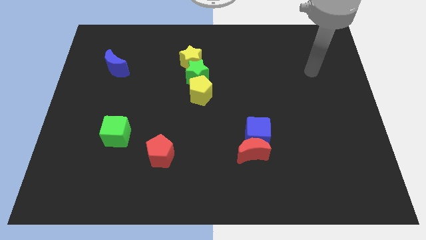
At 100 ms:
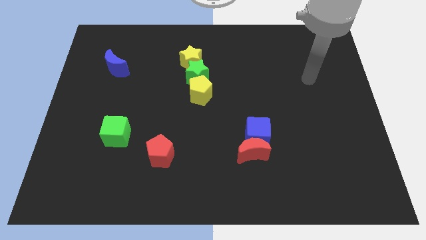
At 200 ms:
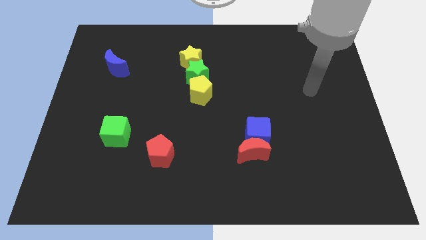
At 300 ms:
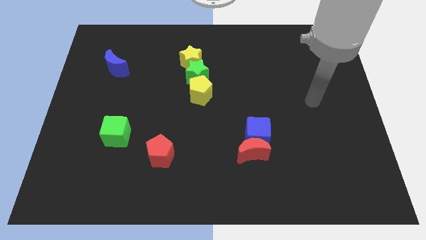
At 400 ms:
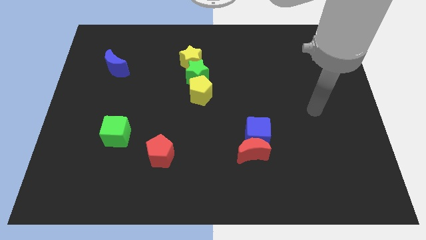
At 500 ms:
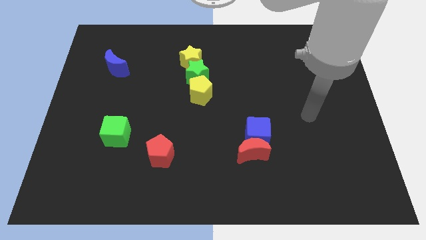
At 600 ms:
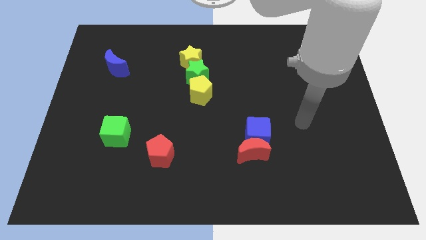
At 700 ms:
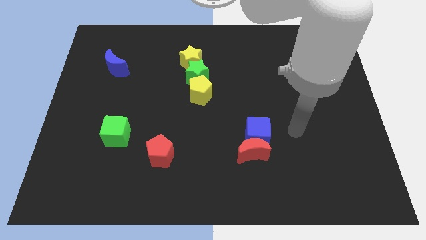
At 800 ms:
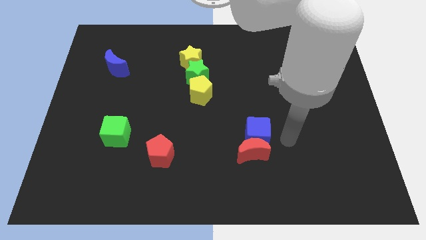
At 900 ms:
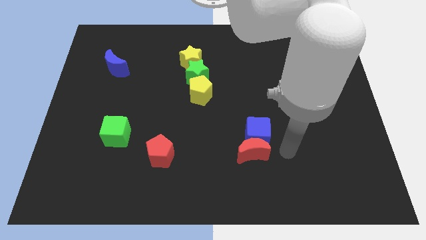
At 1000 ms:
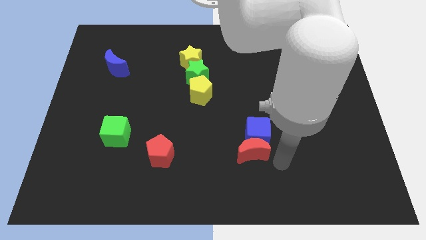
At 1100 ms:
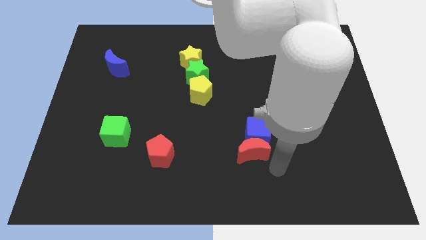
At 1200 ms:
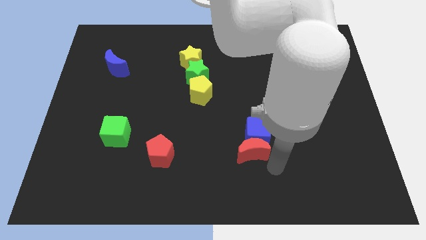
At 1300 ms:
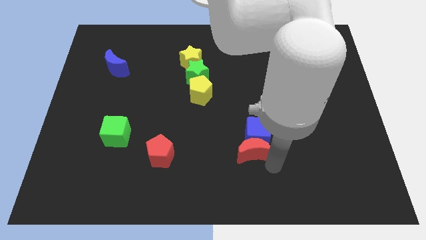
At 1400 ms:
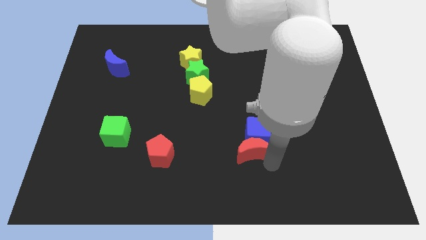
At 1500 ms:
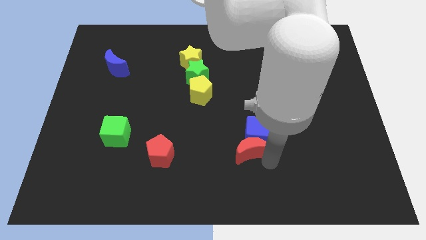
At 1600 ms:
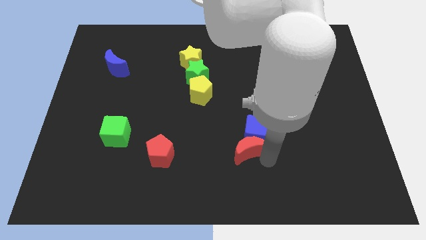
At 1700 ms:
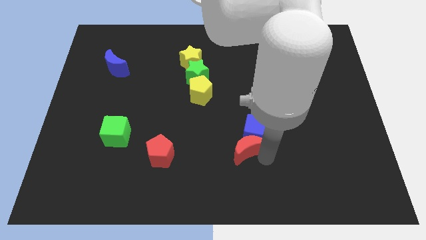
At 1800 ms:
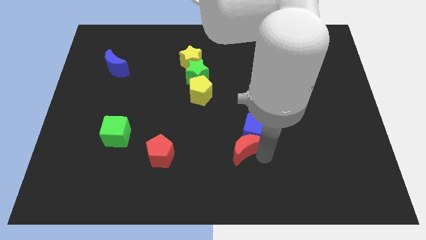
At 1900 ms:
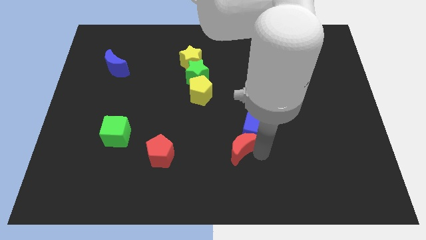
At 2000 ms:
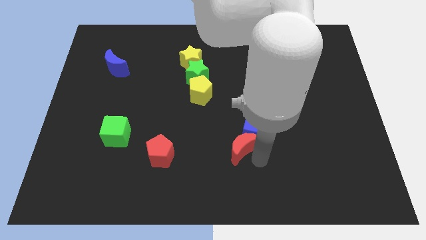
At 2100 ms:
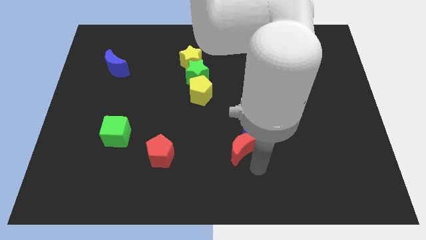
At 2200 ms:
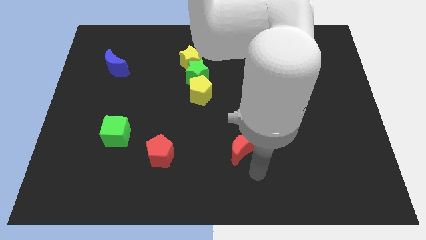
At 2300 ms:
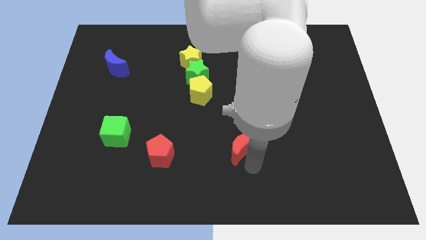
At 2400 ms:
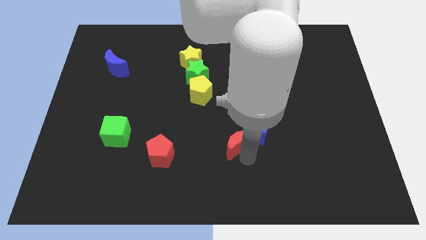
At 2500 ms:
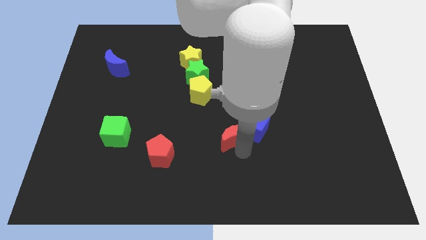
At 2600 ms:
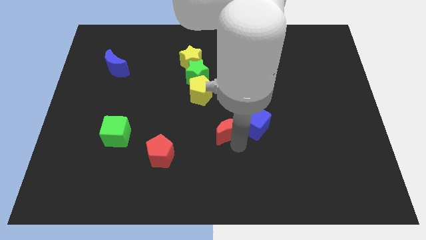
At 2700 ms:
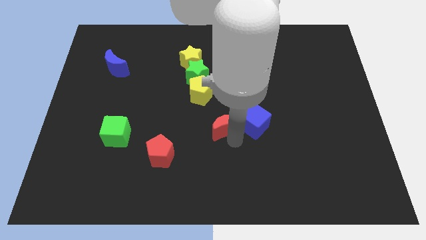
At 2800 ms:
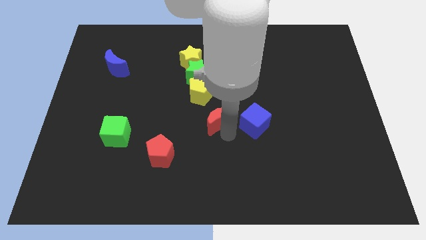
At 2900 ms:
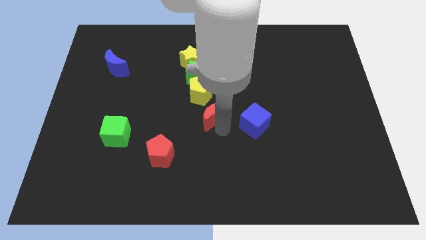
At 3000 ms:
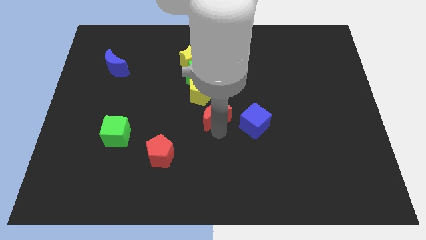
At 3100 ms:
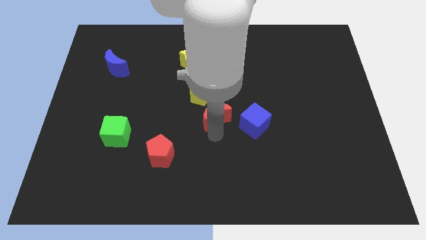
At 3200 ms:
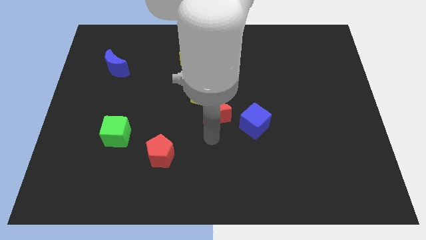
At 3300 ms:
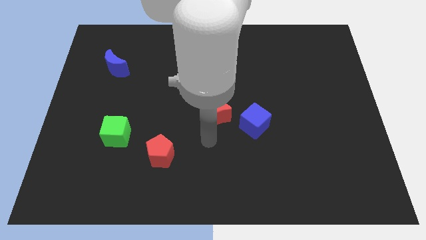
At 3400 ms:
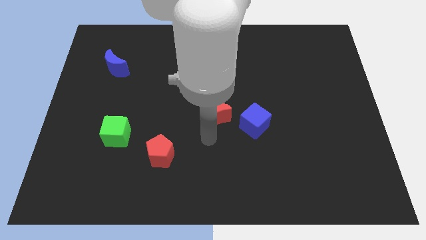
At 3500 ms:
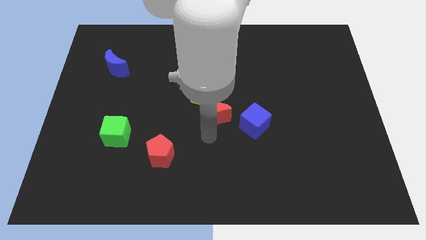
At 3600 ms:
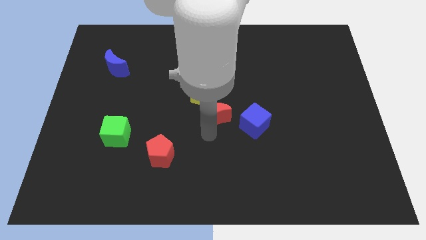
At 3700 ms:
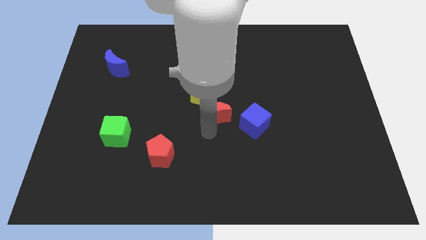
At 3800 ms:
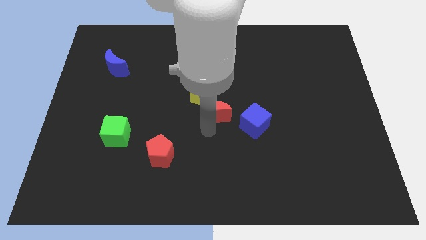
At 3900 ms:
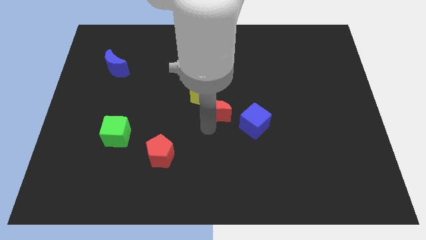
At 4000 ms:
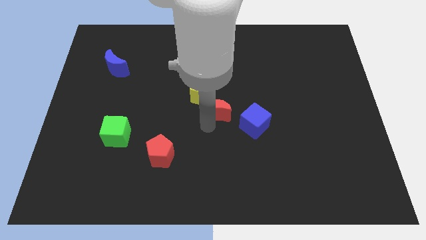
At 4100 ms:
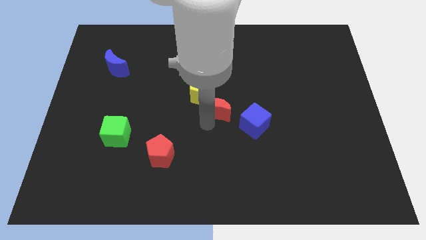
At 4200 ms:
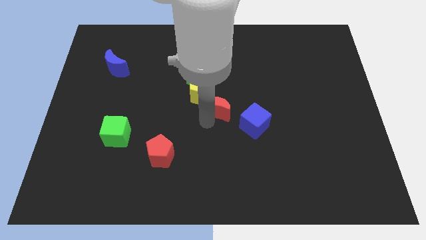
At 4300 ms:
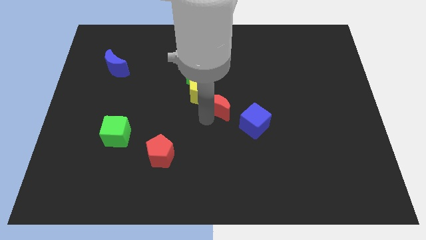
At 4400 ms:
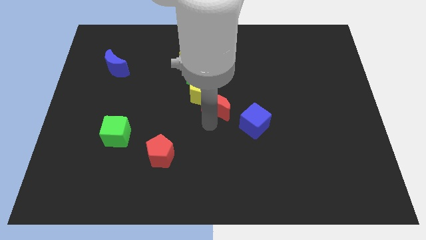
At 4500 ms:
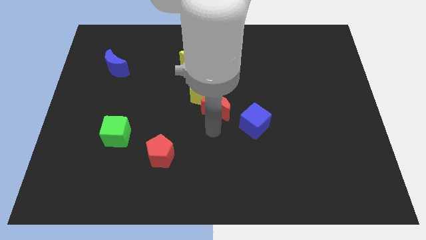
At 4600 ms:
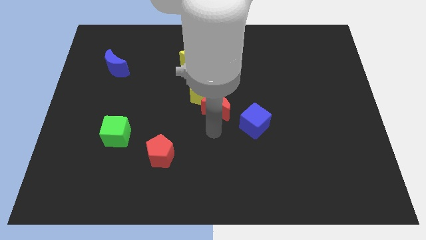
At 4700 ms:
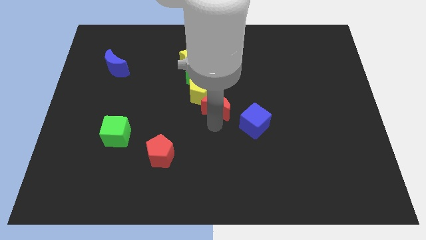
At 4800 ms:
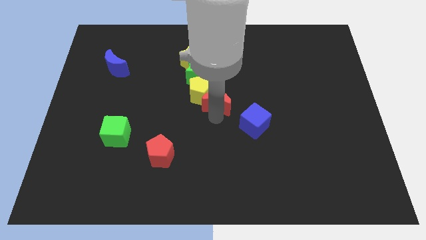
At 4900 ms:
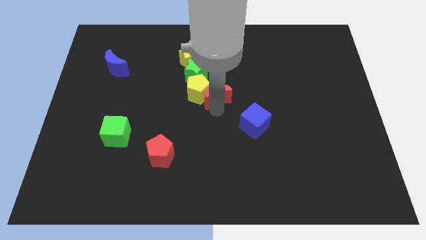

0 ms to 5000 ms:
slide the red moon to the top right side of the yellow pentagon

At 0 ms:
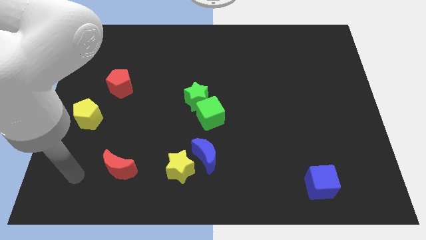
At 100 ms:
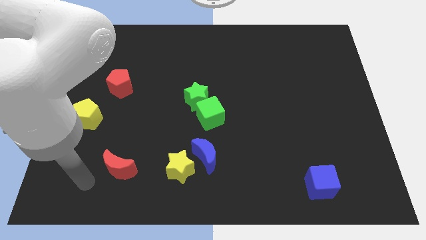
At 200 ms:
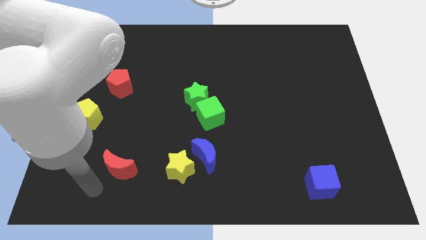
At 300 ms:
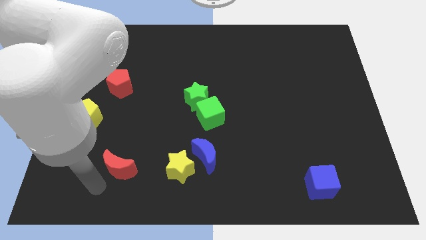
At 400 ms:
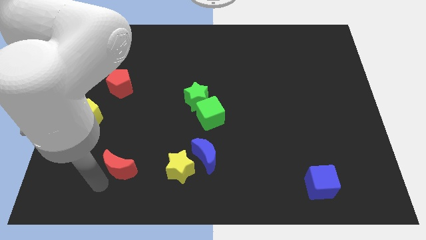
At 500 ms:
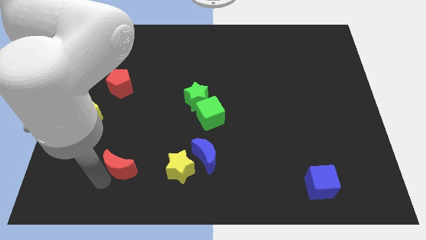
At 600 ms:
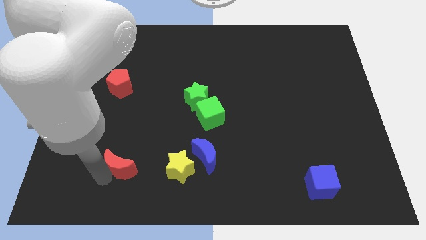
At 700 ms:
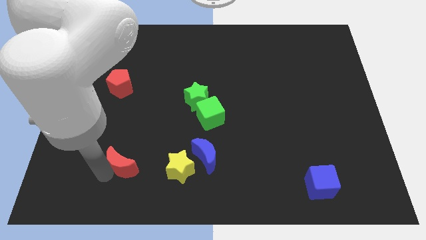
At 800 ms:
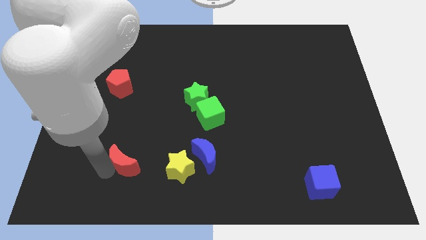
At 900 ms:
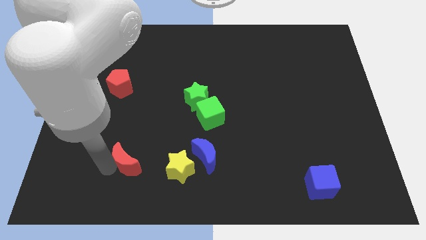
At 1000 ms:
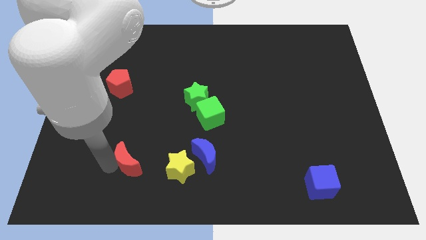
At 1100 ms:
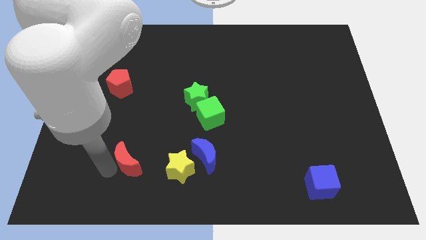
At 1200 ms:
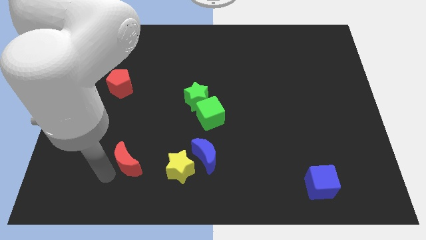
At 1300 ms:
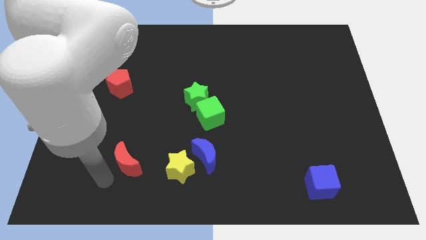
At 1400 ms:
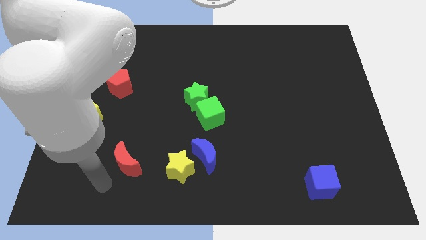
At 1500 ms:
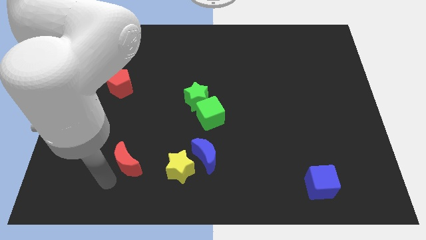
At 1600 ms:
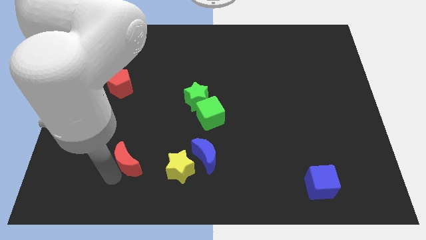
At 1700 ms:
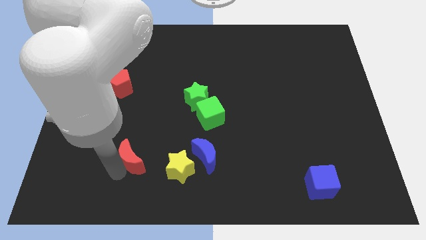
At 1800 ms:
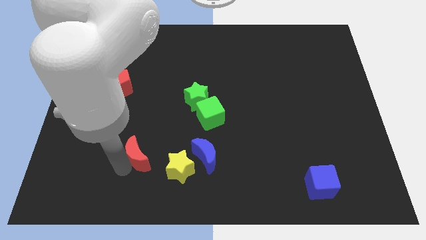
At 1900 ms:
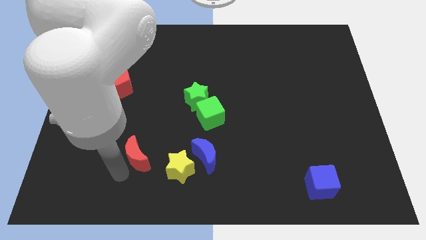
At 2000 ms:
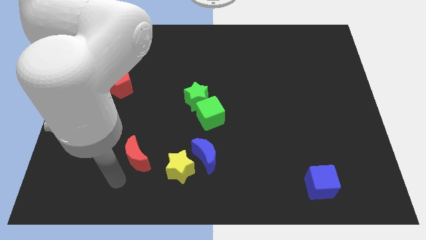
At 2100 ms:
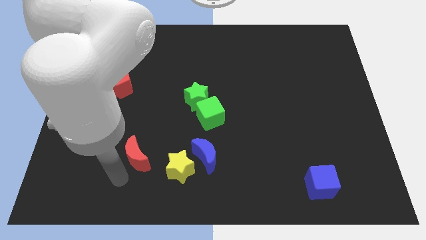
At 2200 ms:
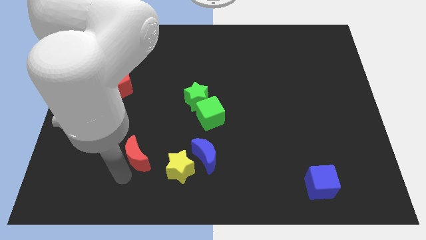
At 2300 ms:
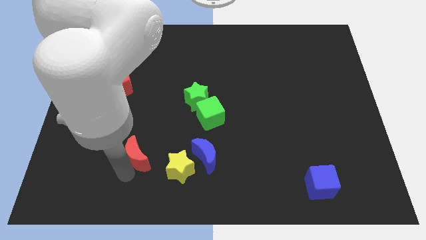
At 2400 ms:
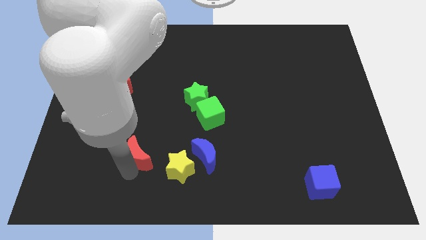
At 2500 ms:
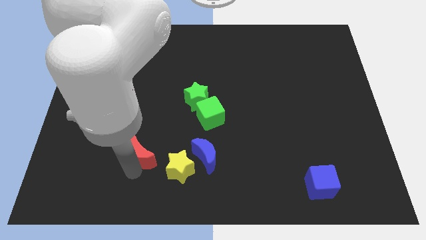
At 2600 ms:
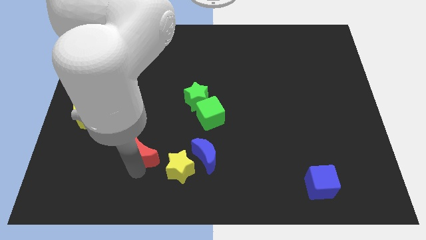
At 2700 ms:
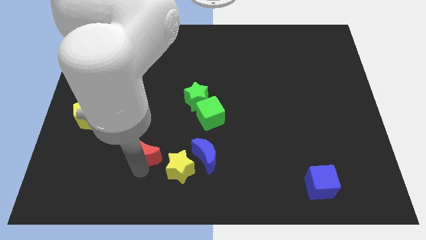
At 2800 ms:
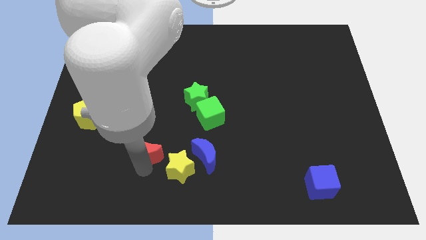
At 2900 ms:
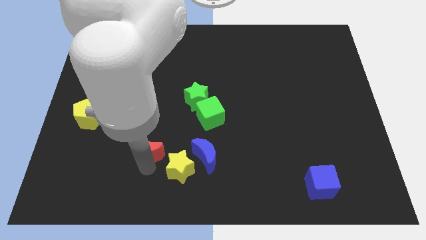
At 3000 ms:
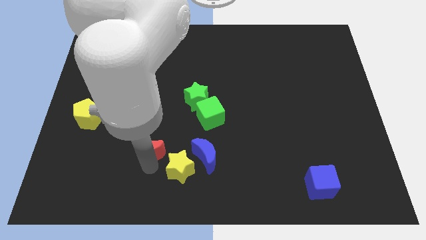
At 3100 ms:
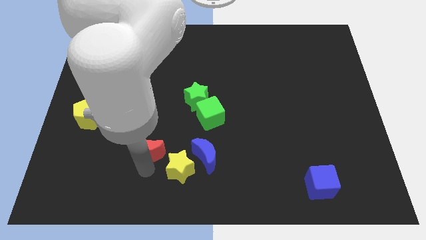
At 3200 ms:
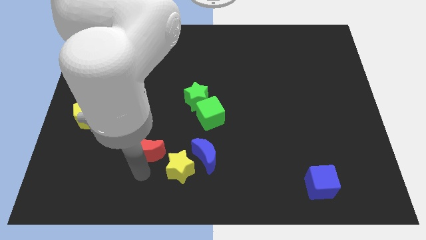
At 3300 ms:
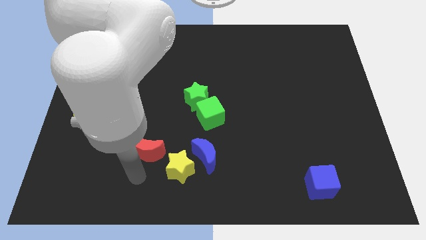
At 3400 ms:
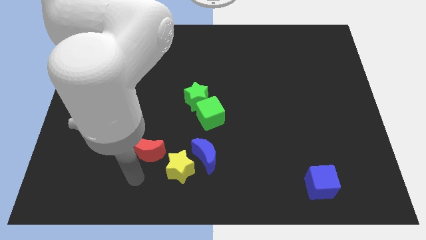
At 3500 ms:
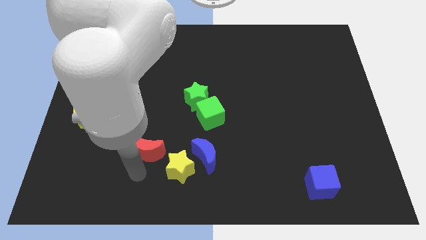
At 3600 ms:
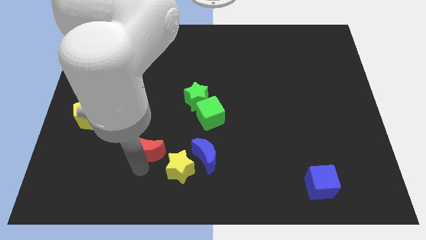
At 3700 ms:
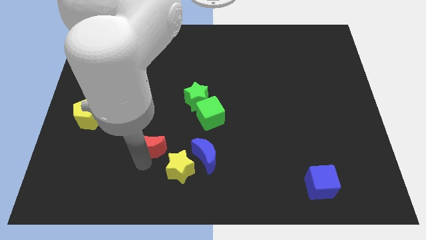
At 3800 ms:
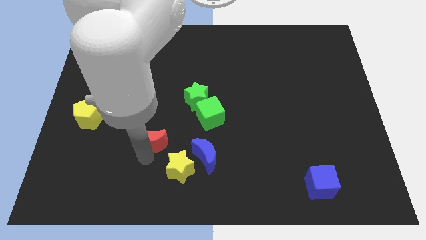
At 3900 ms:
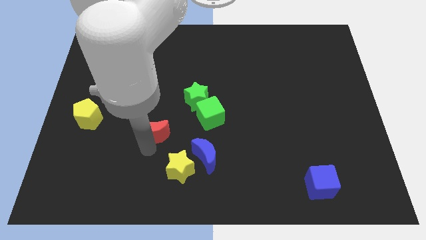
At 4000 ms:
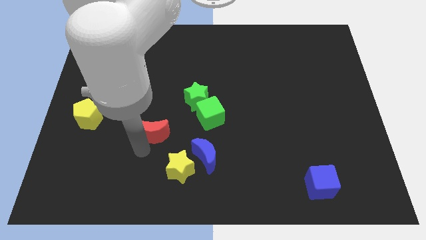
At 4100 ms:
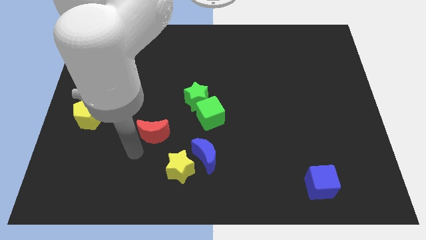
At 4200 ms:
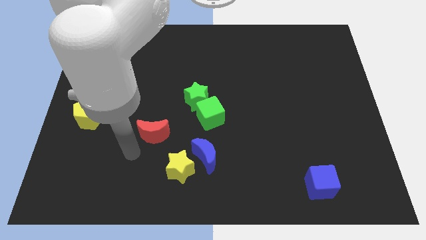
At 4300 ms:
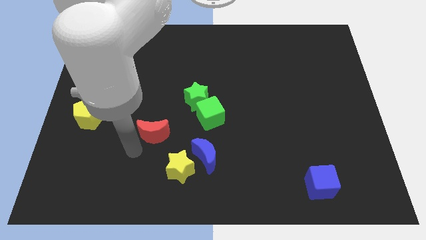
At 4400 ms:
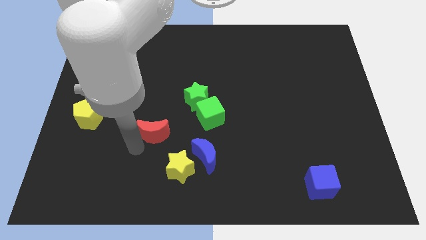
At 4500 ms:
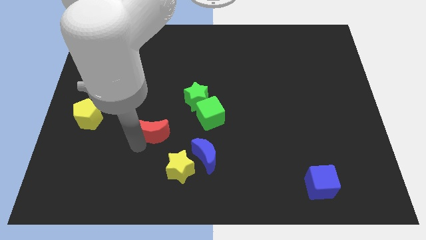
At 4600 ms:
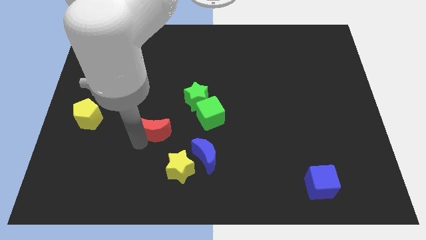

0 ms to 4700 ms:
move the red moon to the bottom left of the green star
